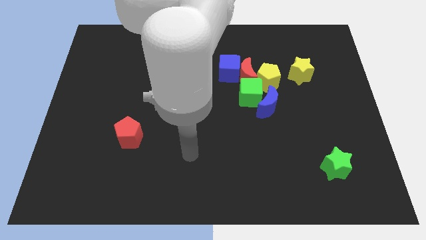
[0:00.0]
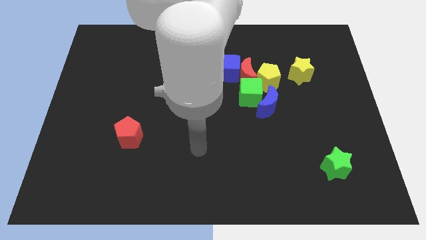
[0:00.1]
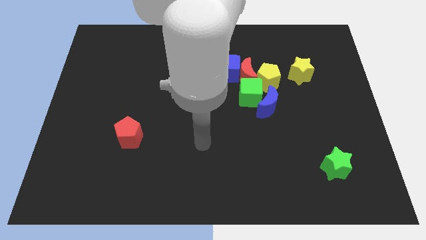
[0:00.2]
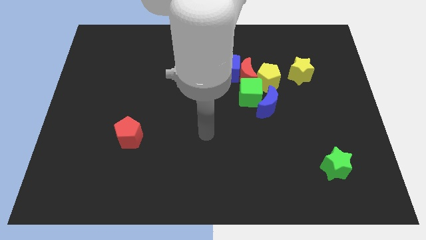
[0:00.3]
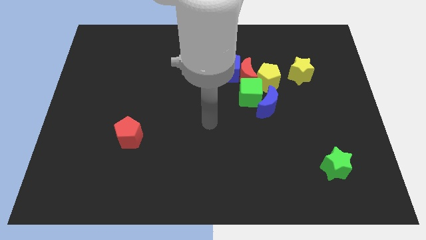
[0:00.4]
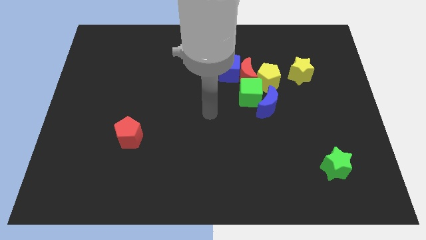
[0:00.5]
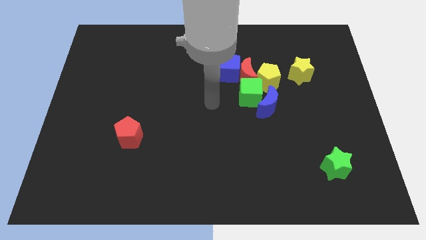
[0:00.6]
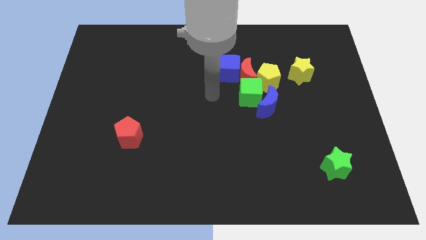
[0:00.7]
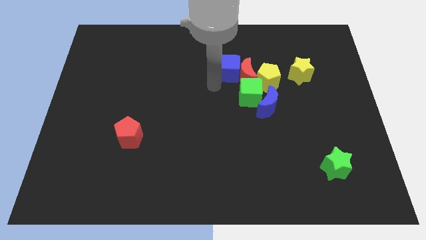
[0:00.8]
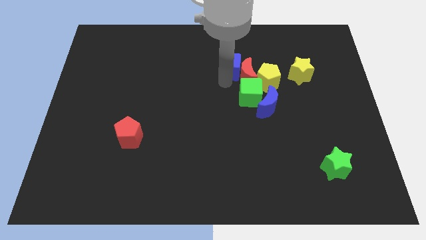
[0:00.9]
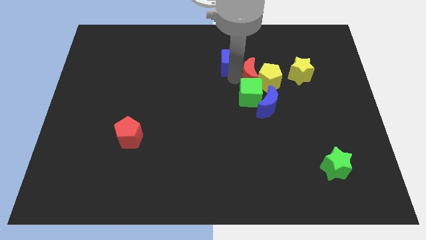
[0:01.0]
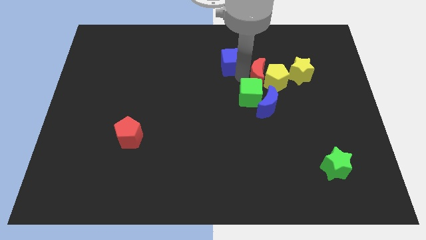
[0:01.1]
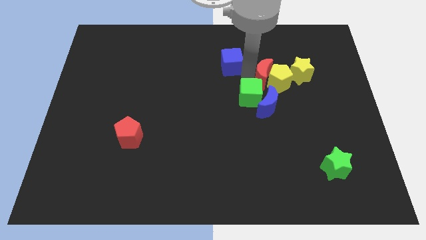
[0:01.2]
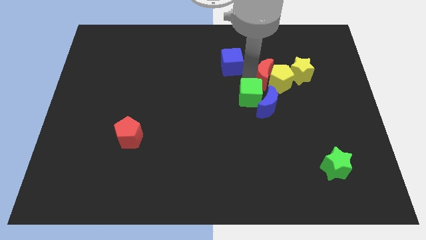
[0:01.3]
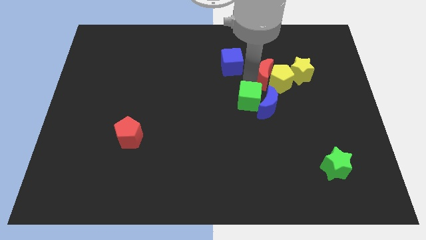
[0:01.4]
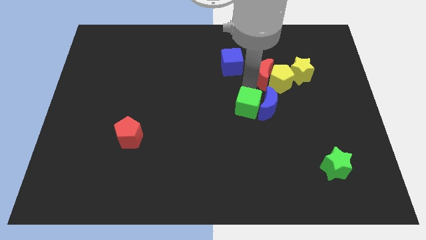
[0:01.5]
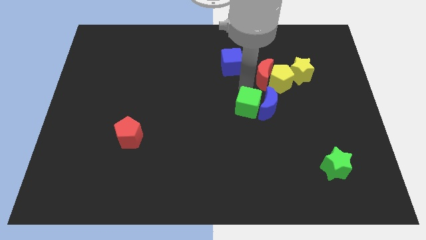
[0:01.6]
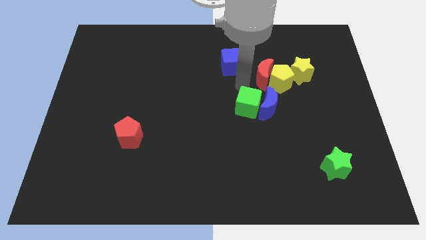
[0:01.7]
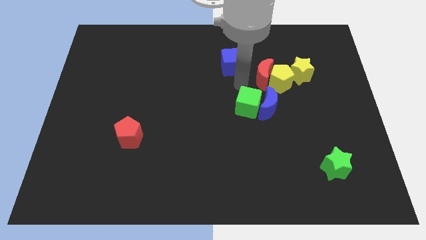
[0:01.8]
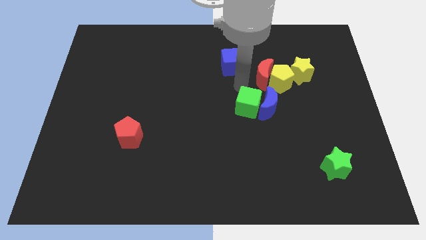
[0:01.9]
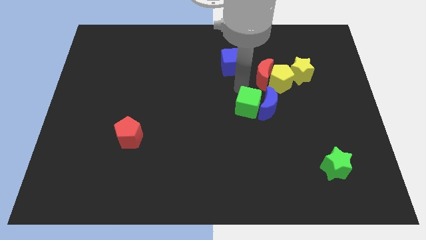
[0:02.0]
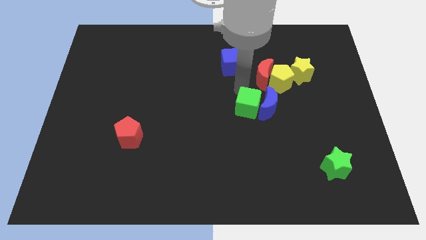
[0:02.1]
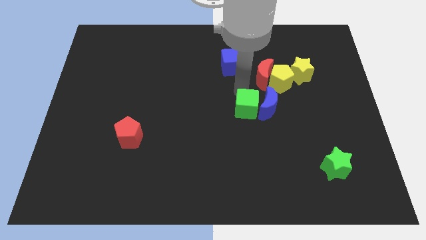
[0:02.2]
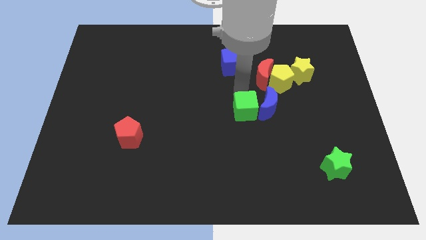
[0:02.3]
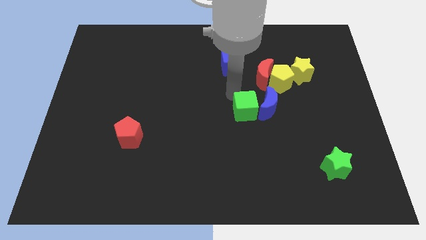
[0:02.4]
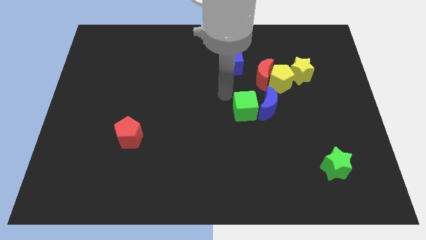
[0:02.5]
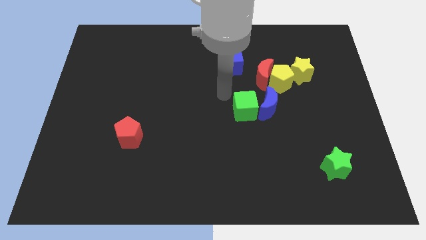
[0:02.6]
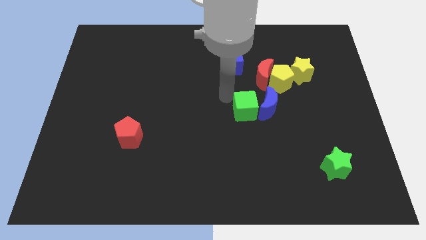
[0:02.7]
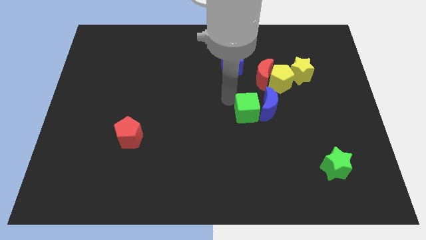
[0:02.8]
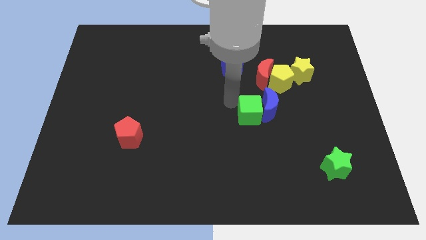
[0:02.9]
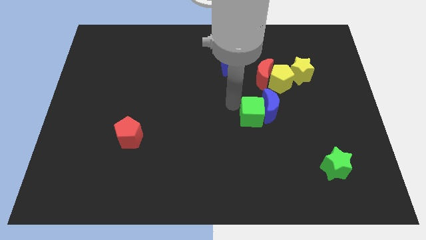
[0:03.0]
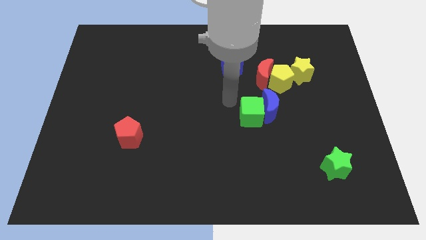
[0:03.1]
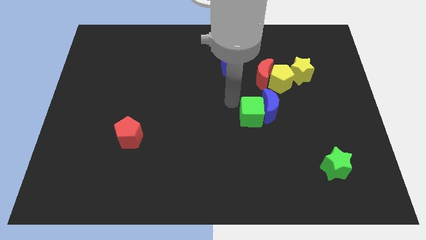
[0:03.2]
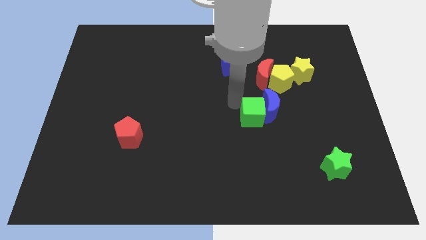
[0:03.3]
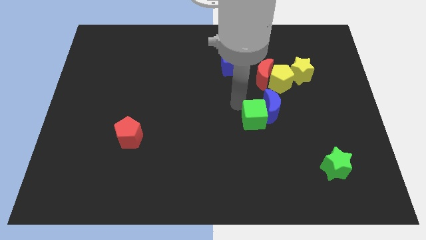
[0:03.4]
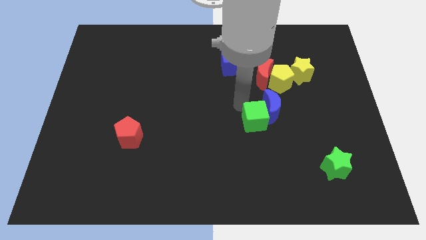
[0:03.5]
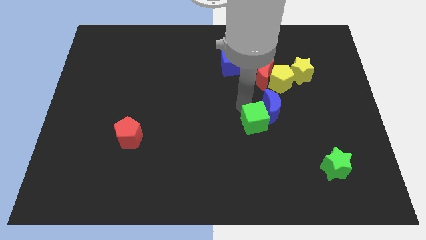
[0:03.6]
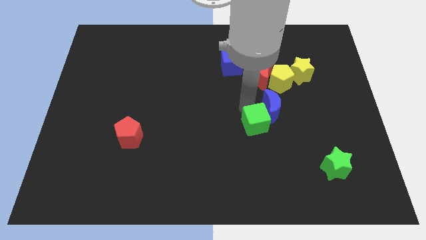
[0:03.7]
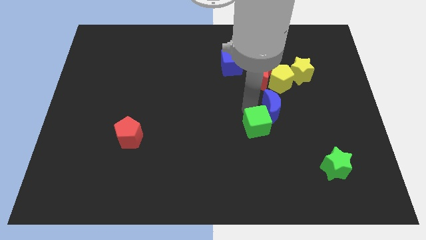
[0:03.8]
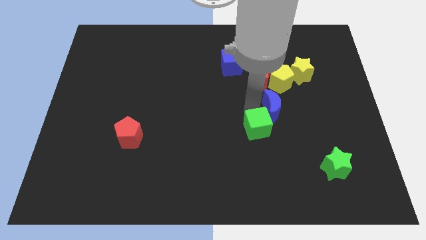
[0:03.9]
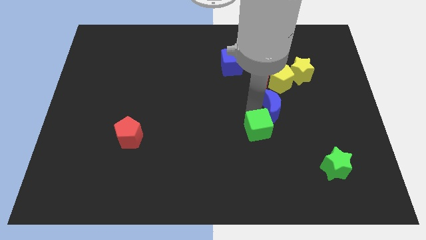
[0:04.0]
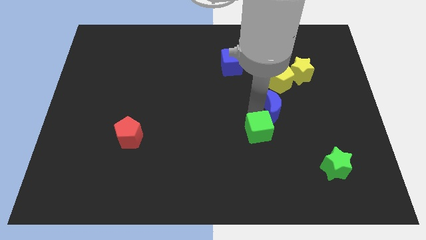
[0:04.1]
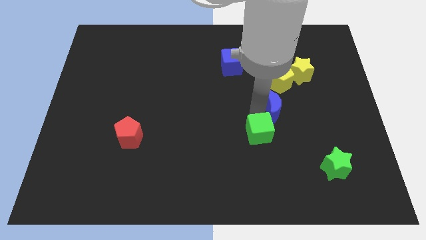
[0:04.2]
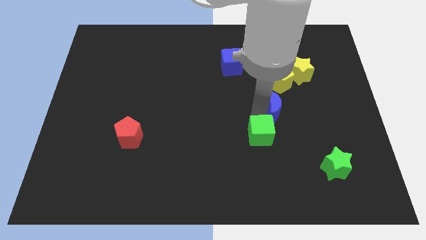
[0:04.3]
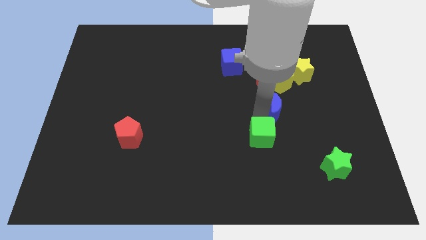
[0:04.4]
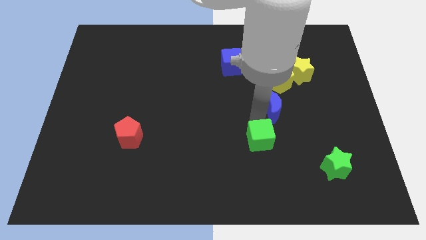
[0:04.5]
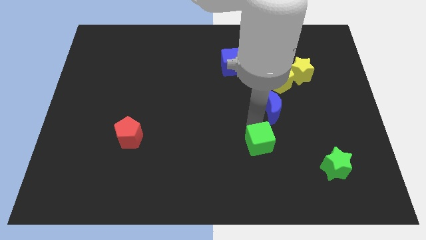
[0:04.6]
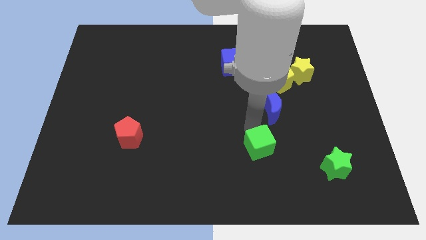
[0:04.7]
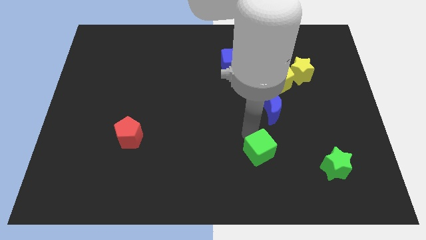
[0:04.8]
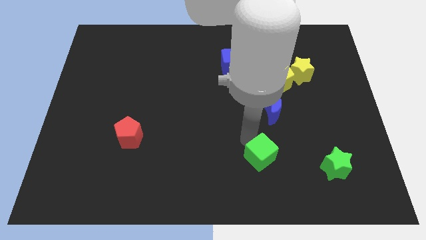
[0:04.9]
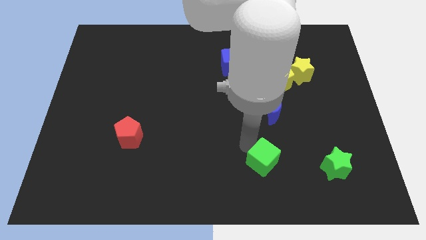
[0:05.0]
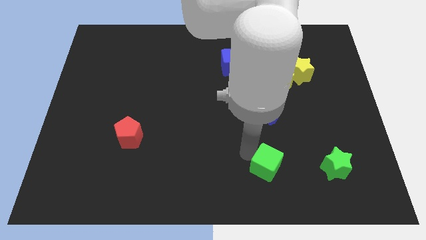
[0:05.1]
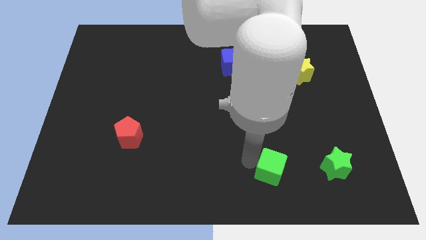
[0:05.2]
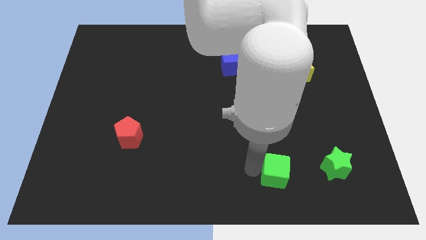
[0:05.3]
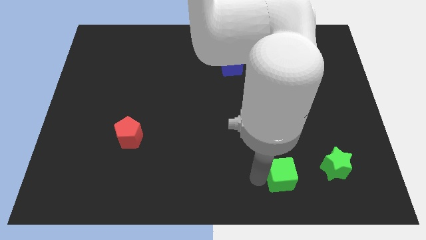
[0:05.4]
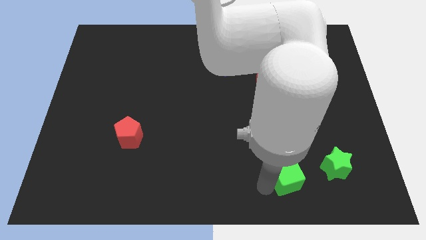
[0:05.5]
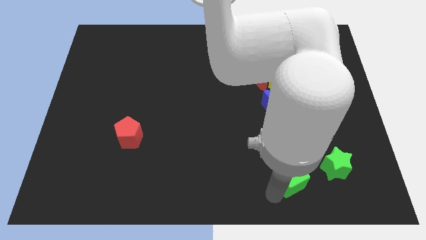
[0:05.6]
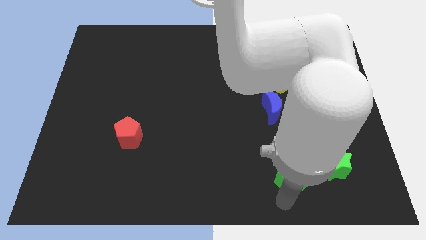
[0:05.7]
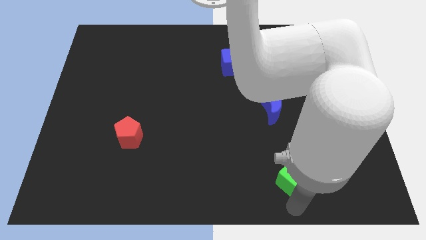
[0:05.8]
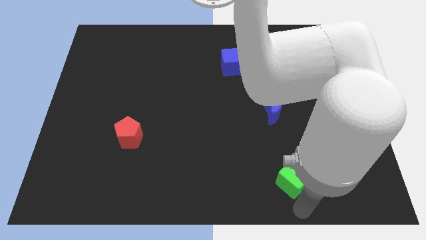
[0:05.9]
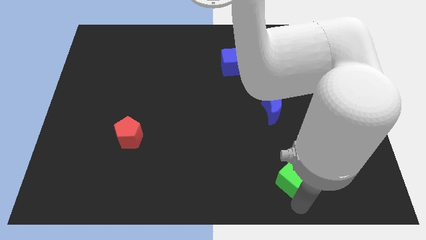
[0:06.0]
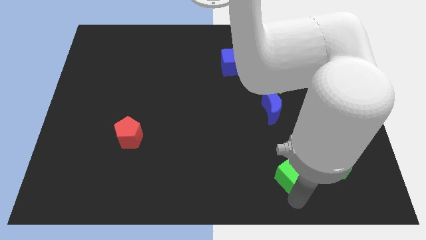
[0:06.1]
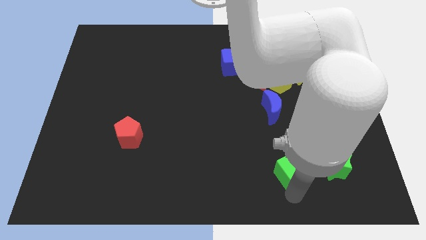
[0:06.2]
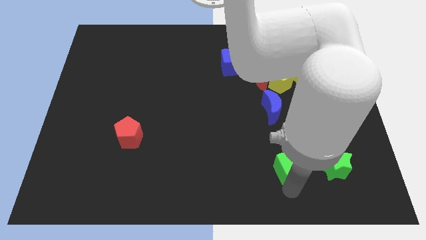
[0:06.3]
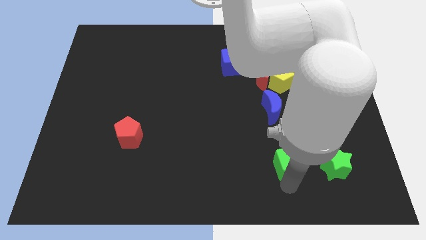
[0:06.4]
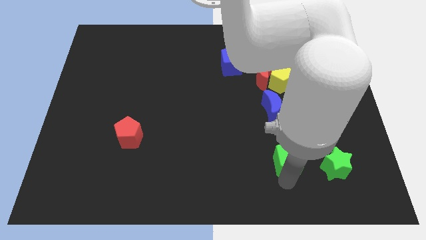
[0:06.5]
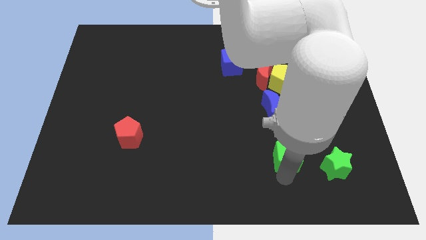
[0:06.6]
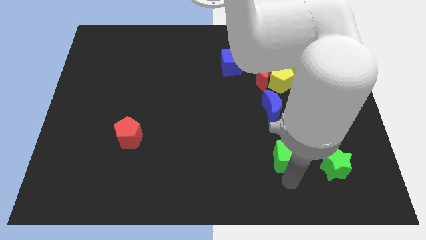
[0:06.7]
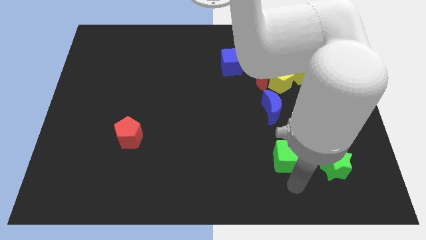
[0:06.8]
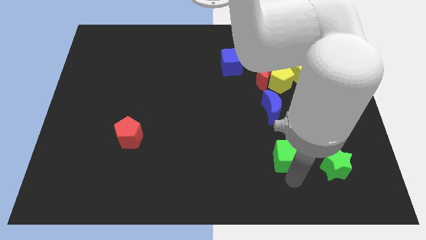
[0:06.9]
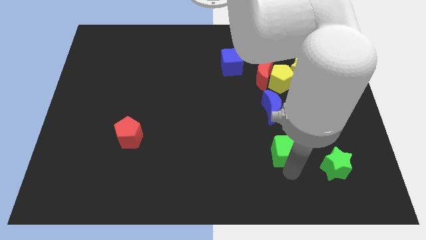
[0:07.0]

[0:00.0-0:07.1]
move the green cube to the top left of the green star

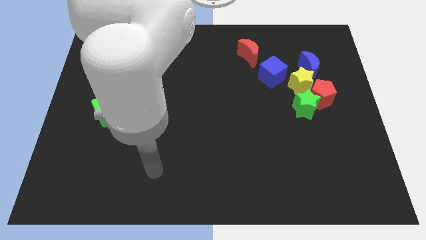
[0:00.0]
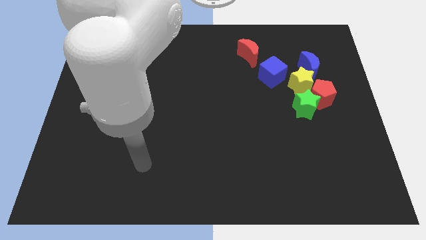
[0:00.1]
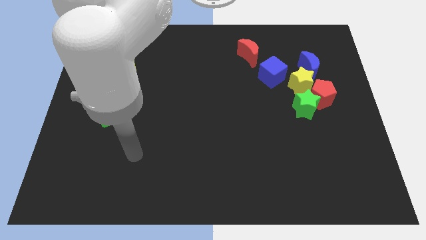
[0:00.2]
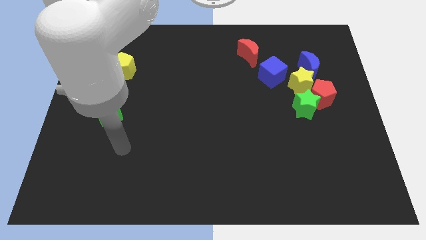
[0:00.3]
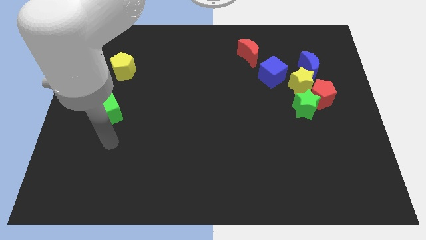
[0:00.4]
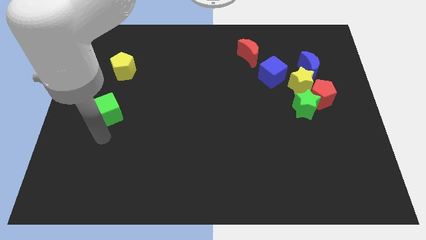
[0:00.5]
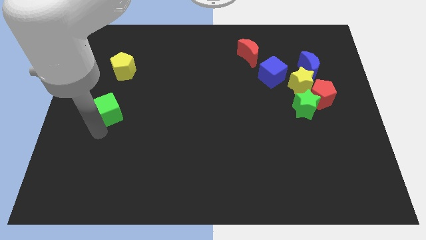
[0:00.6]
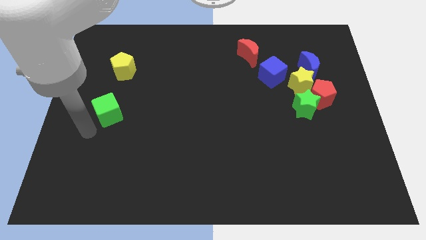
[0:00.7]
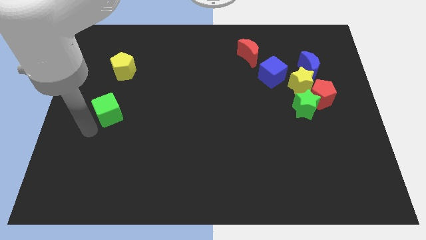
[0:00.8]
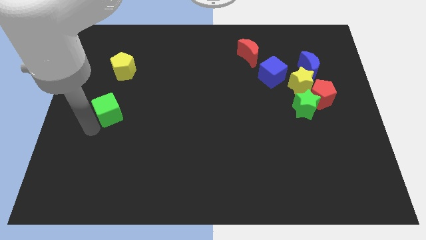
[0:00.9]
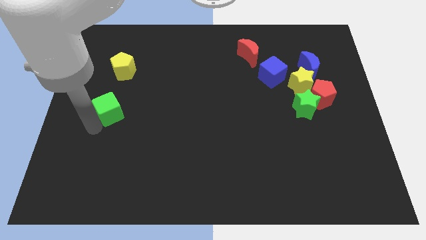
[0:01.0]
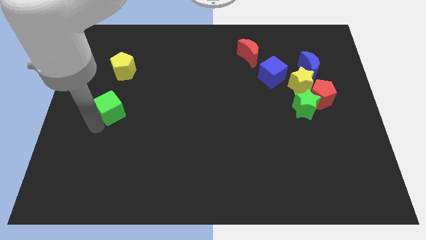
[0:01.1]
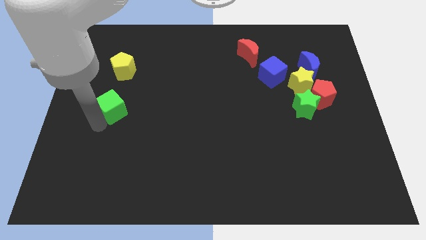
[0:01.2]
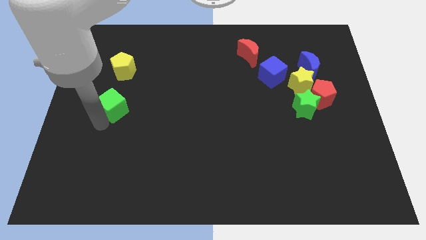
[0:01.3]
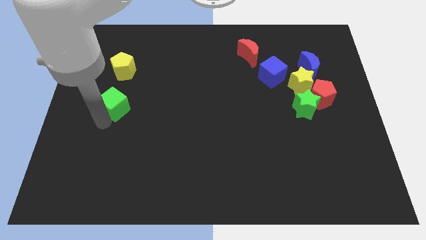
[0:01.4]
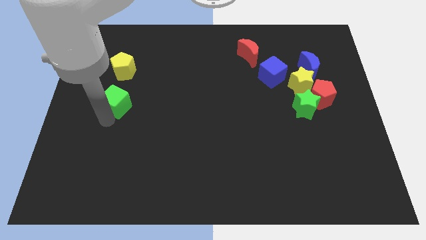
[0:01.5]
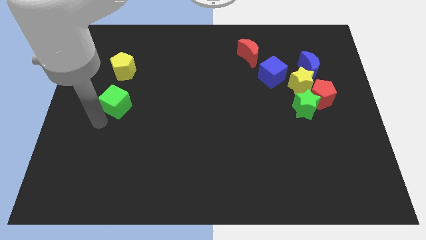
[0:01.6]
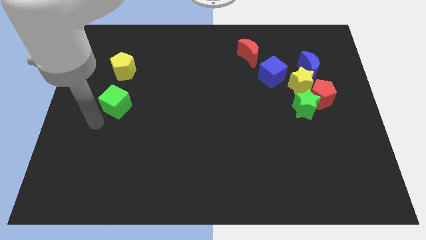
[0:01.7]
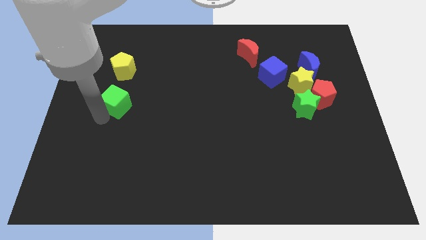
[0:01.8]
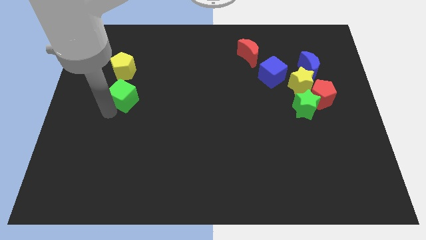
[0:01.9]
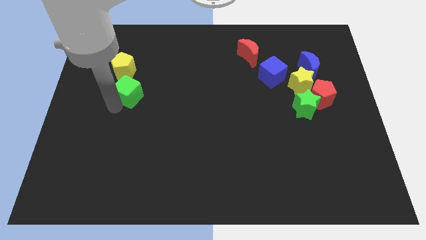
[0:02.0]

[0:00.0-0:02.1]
put the green cube diagonally down and to the right of the yellow pentagon
